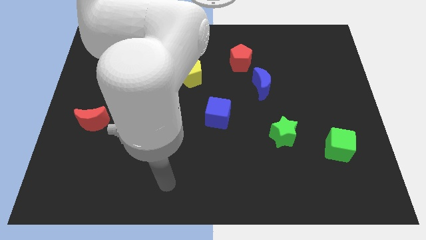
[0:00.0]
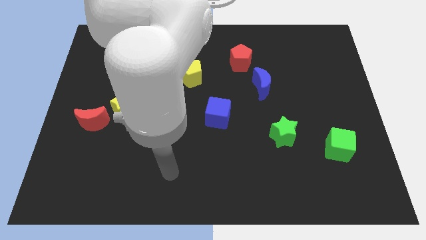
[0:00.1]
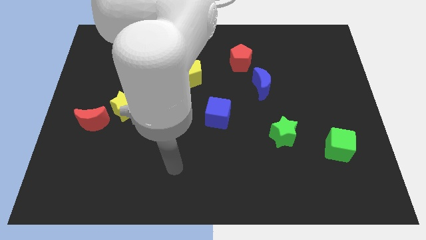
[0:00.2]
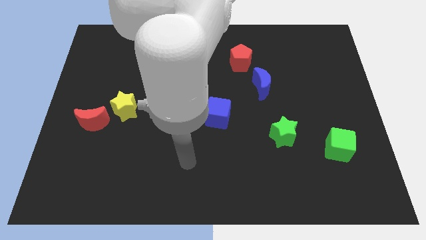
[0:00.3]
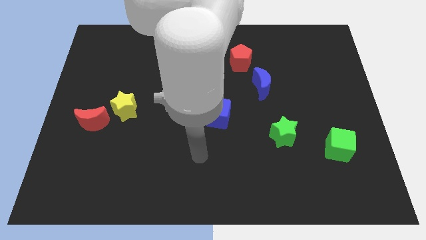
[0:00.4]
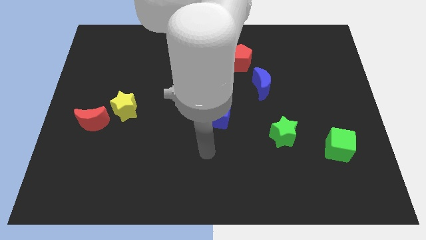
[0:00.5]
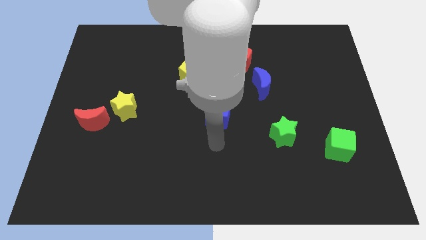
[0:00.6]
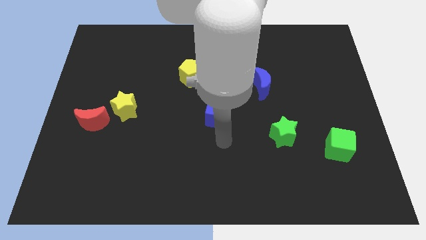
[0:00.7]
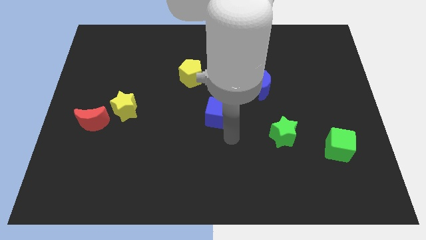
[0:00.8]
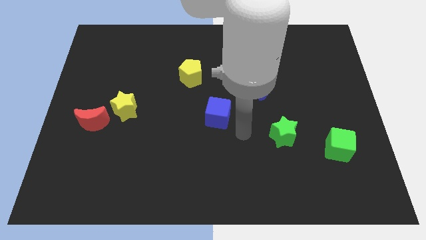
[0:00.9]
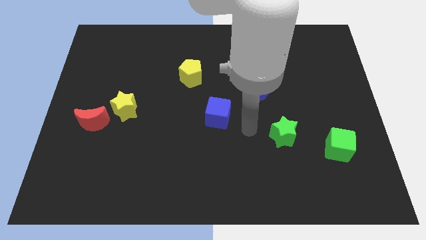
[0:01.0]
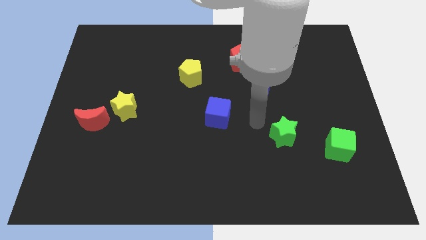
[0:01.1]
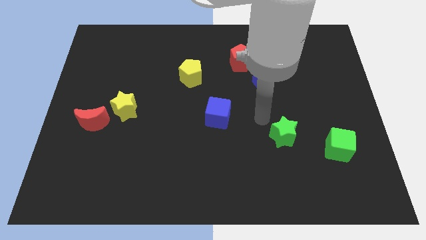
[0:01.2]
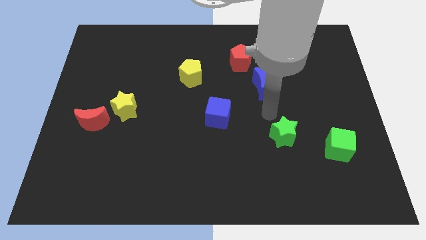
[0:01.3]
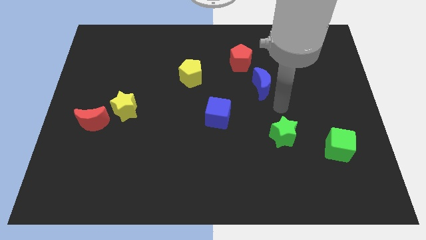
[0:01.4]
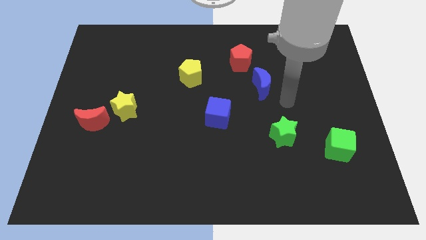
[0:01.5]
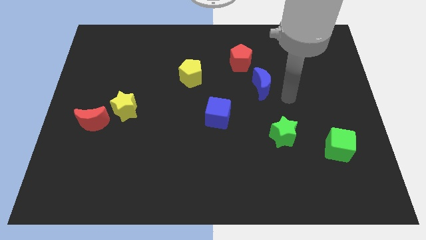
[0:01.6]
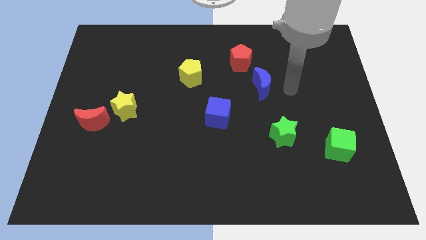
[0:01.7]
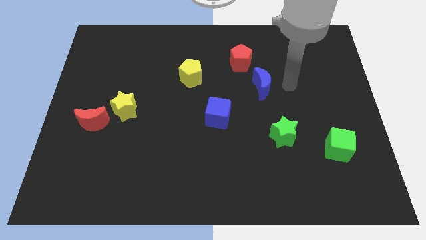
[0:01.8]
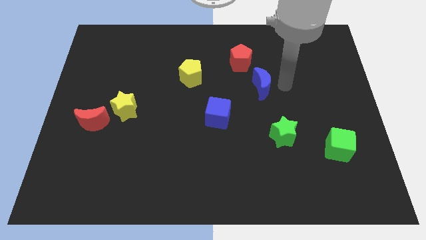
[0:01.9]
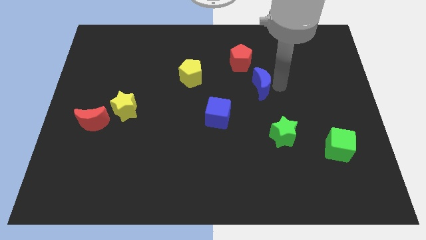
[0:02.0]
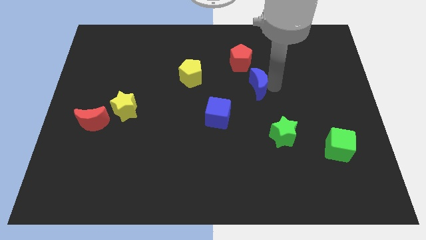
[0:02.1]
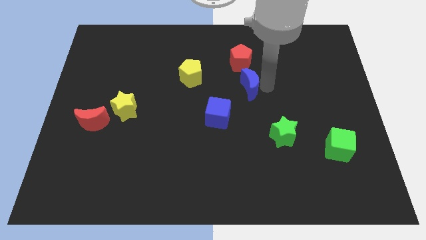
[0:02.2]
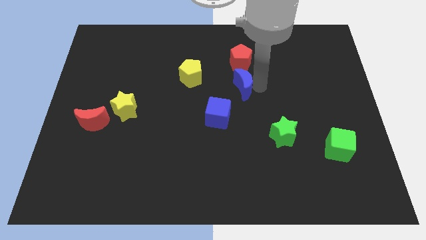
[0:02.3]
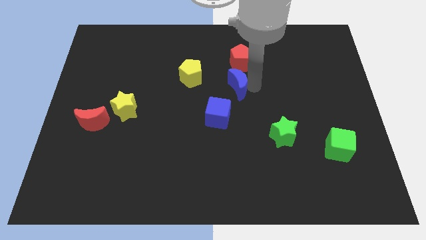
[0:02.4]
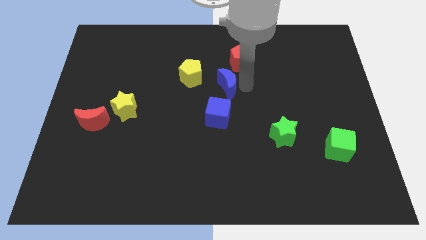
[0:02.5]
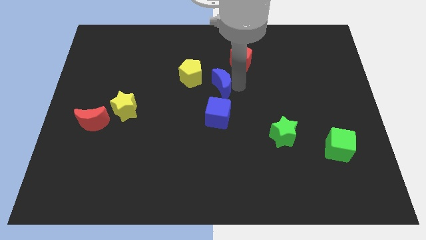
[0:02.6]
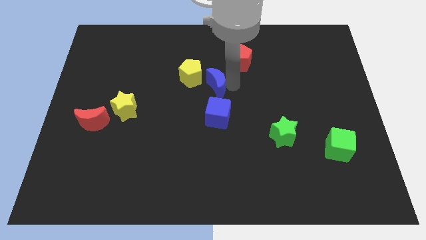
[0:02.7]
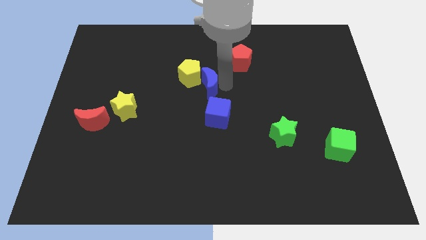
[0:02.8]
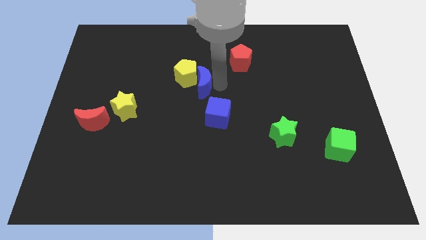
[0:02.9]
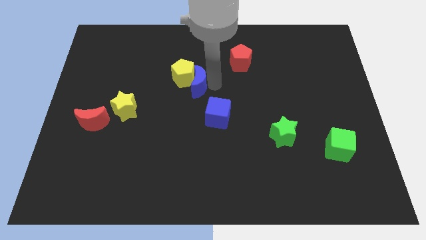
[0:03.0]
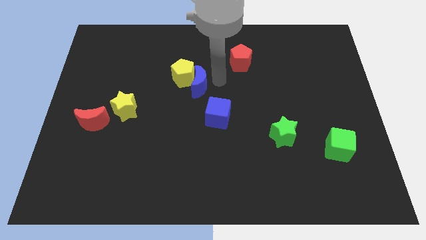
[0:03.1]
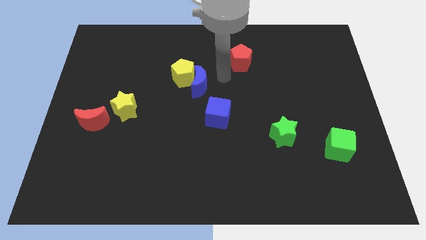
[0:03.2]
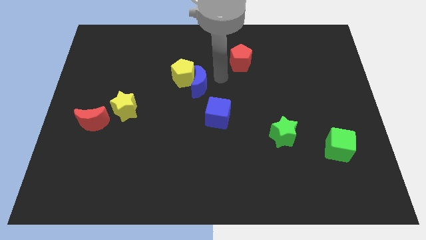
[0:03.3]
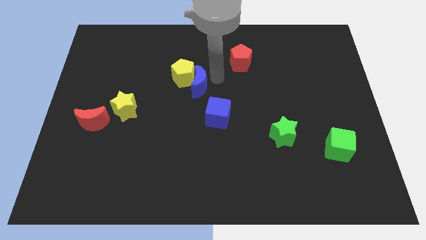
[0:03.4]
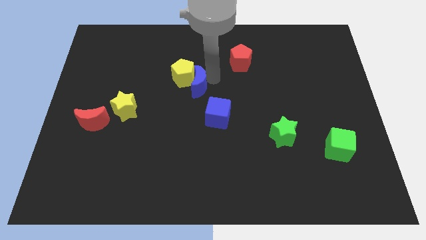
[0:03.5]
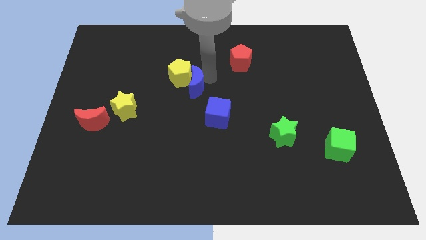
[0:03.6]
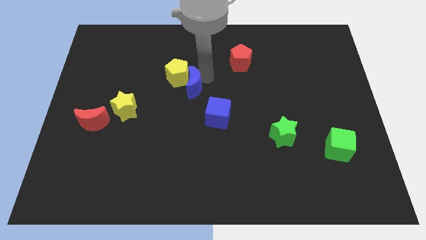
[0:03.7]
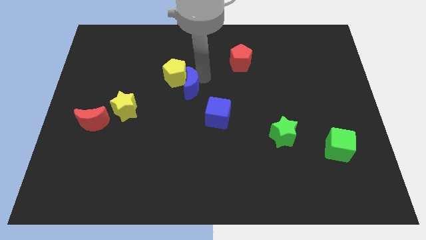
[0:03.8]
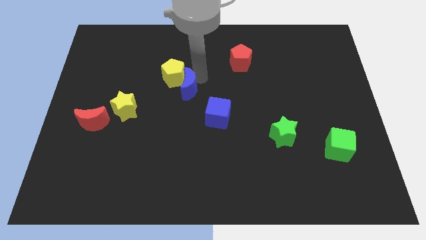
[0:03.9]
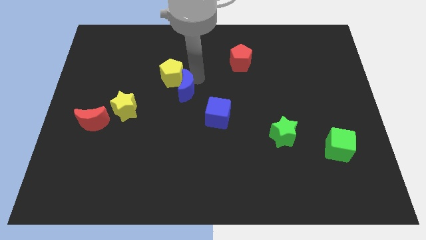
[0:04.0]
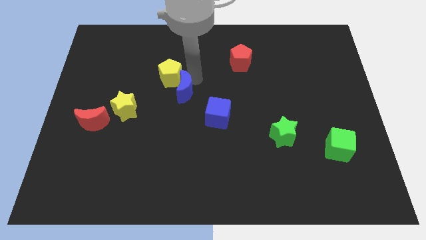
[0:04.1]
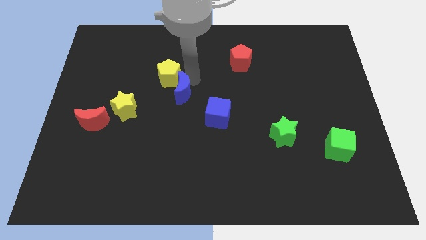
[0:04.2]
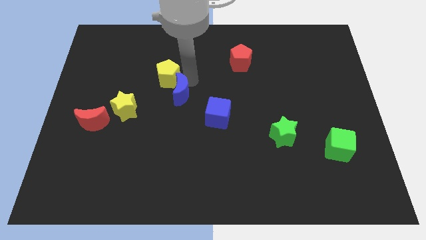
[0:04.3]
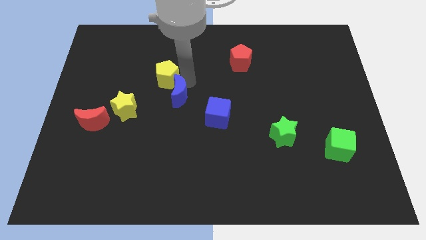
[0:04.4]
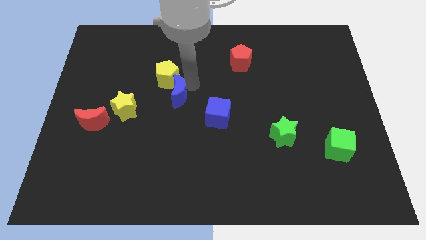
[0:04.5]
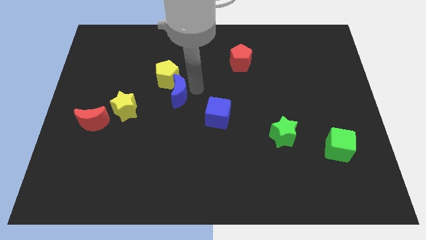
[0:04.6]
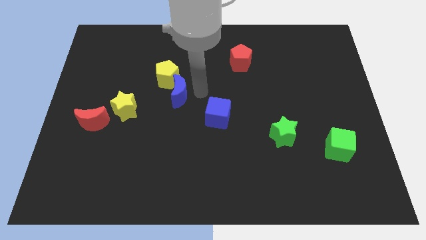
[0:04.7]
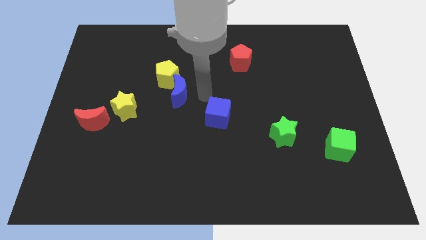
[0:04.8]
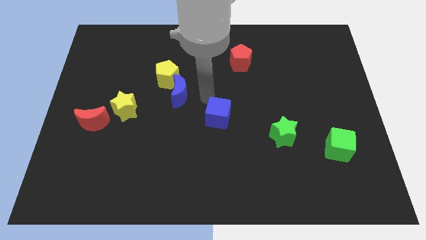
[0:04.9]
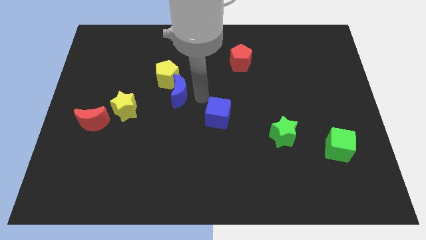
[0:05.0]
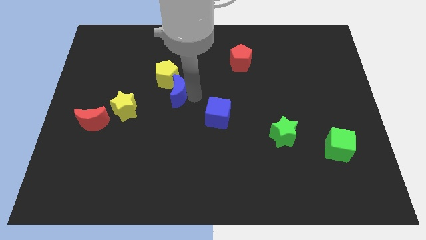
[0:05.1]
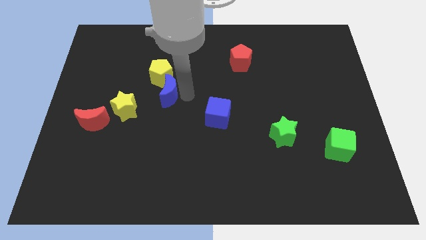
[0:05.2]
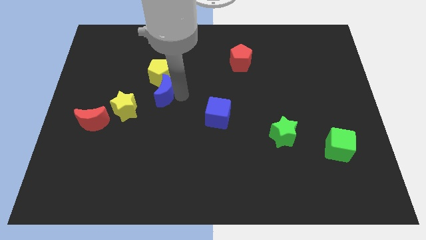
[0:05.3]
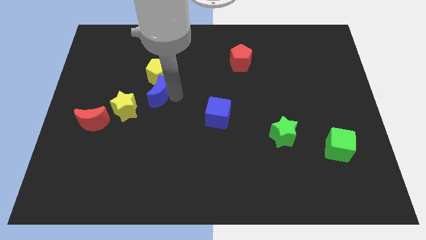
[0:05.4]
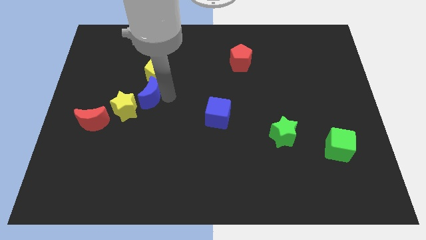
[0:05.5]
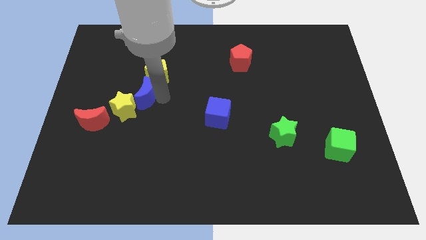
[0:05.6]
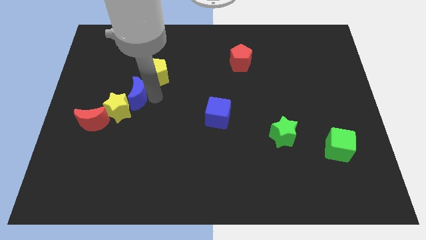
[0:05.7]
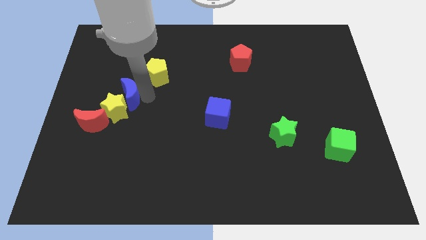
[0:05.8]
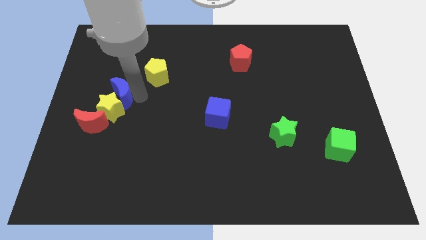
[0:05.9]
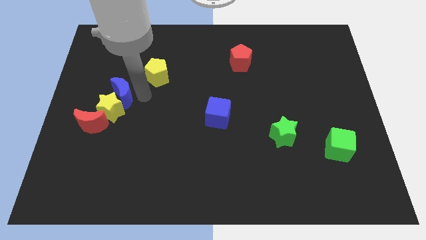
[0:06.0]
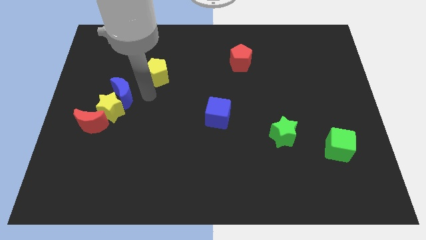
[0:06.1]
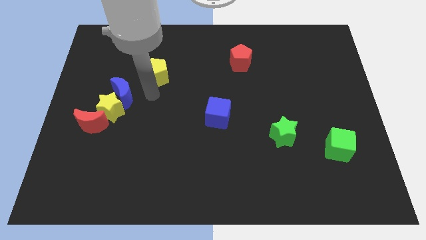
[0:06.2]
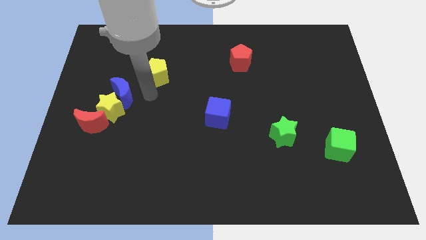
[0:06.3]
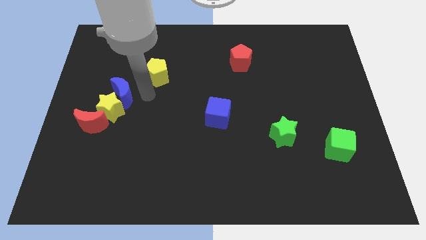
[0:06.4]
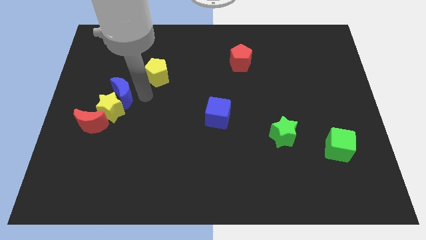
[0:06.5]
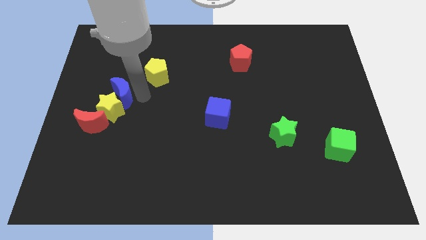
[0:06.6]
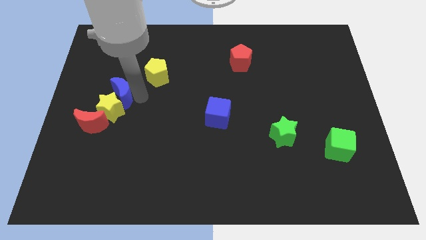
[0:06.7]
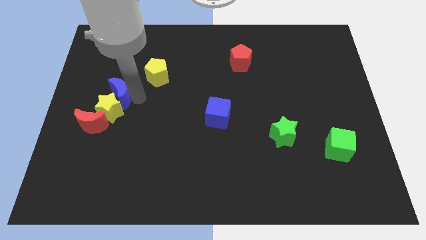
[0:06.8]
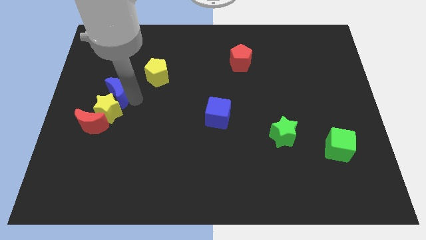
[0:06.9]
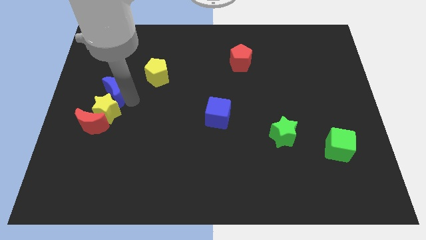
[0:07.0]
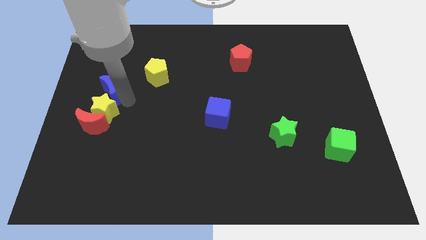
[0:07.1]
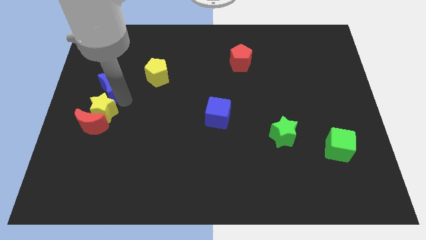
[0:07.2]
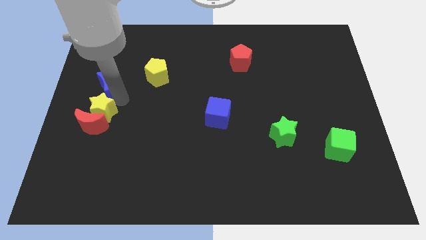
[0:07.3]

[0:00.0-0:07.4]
move the blue moon to the left side of the board
